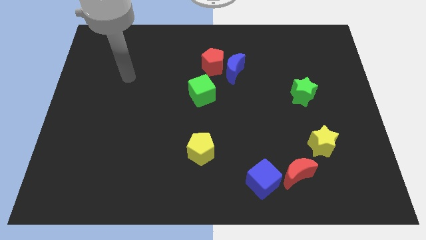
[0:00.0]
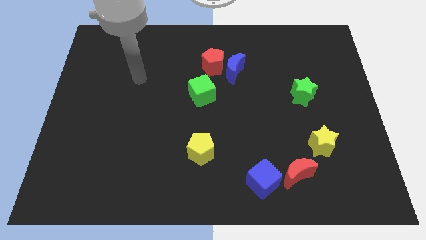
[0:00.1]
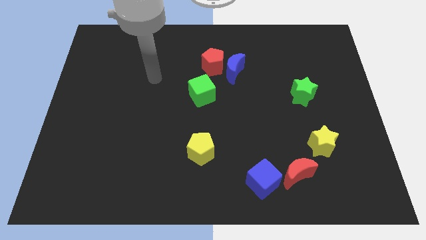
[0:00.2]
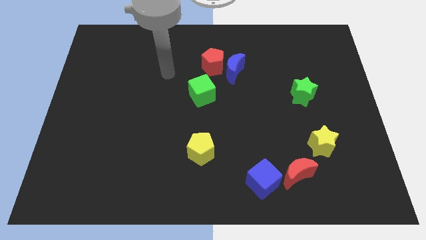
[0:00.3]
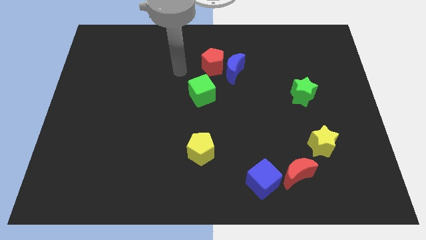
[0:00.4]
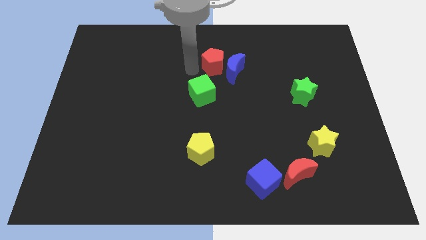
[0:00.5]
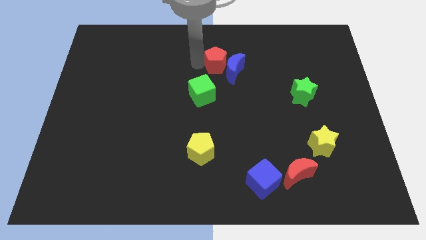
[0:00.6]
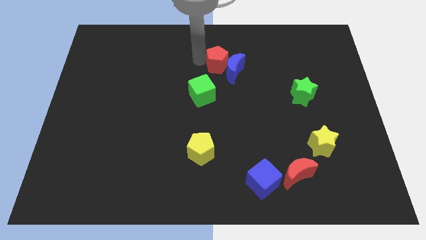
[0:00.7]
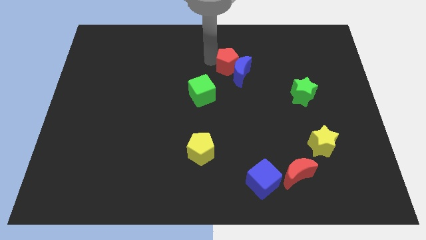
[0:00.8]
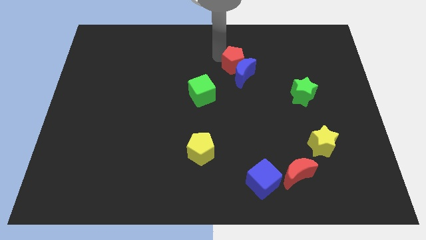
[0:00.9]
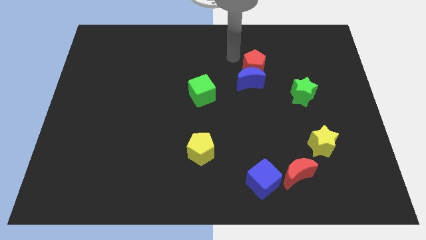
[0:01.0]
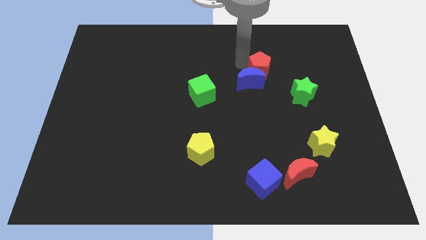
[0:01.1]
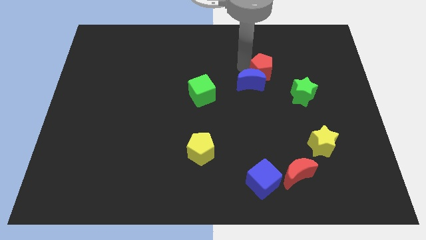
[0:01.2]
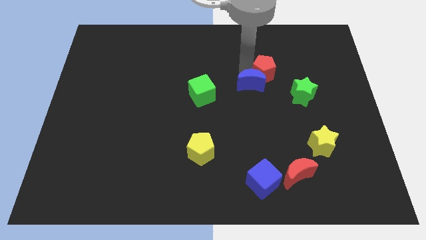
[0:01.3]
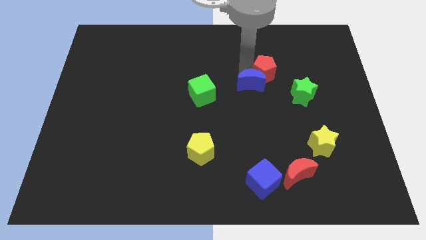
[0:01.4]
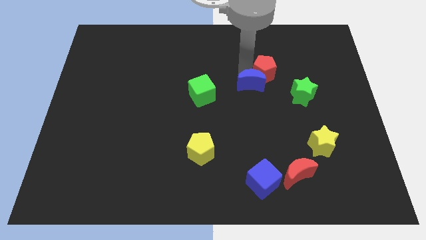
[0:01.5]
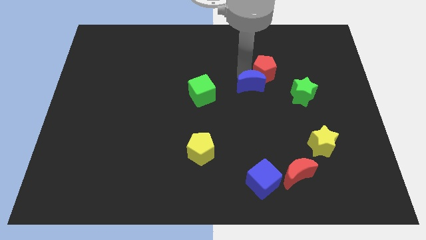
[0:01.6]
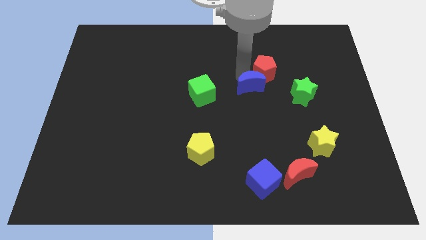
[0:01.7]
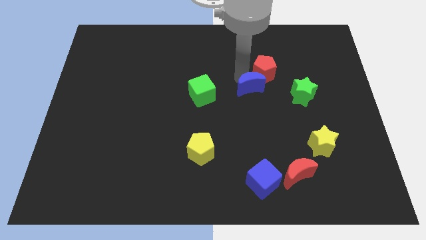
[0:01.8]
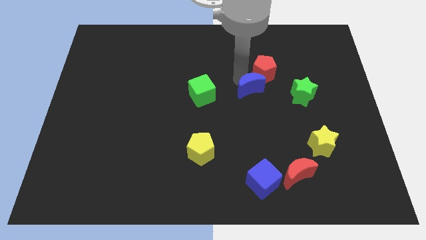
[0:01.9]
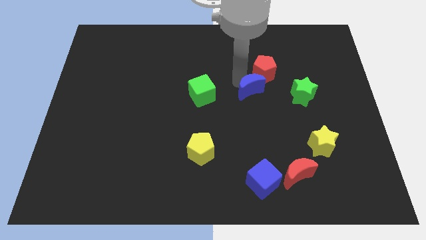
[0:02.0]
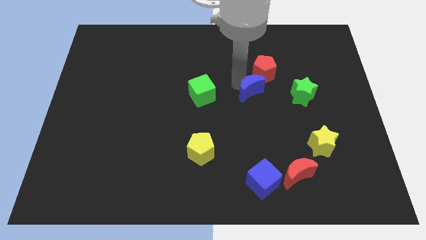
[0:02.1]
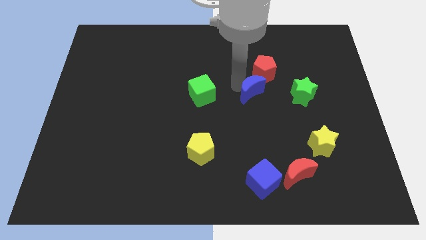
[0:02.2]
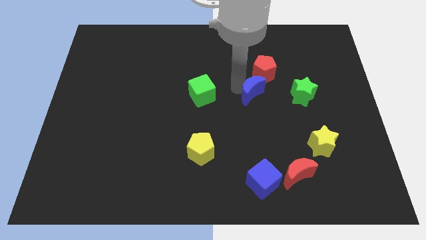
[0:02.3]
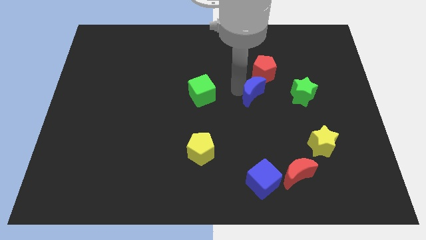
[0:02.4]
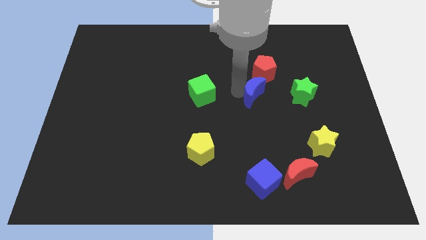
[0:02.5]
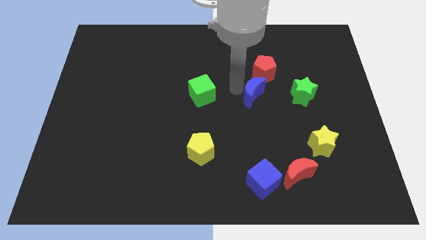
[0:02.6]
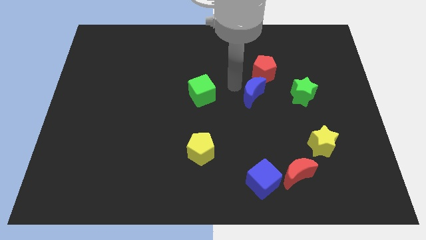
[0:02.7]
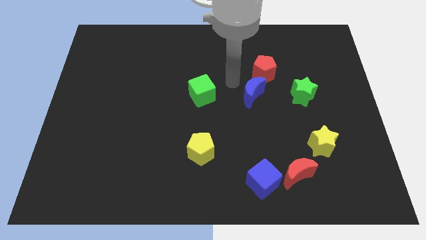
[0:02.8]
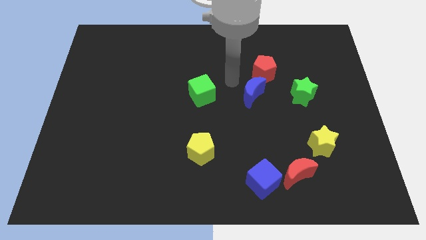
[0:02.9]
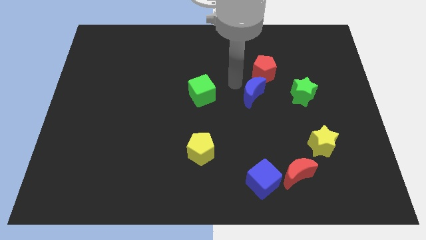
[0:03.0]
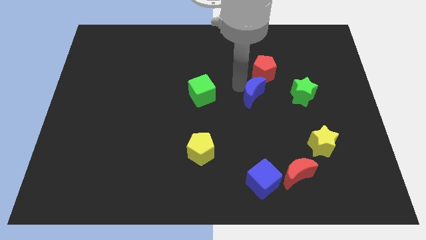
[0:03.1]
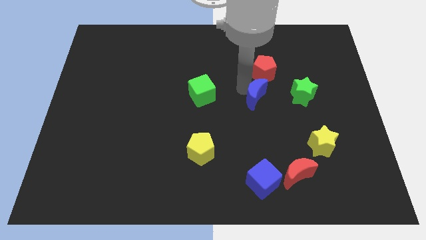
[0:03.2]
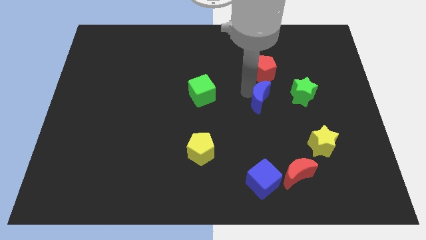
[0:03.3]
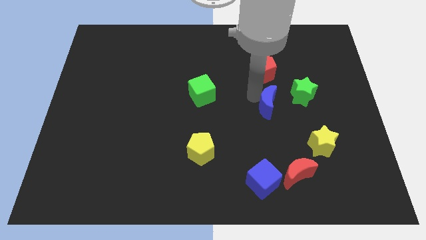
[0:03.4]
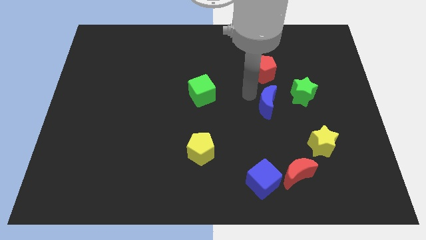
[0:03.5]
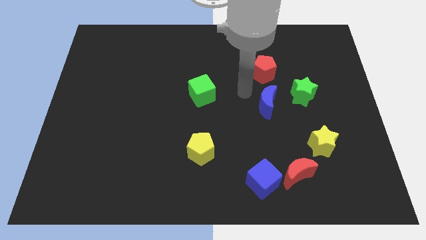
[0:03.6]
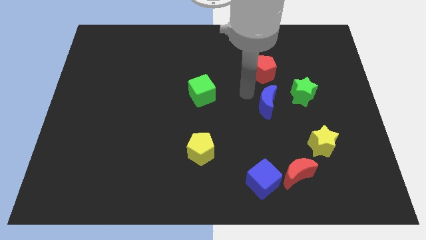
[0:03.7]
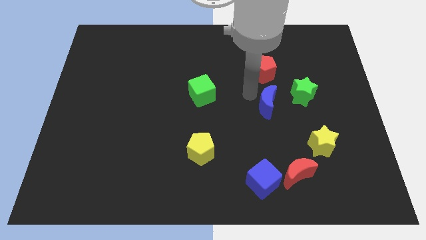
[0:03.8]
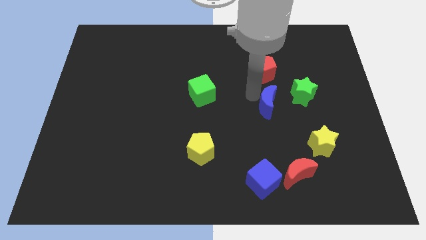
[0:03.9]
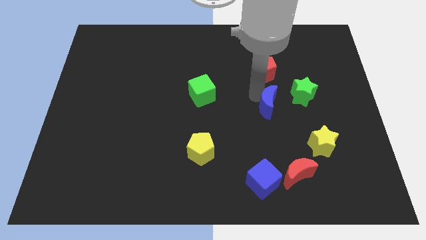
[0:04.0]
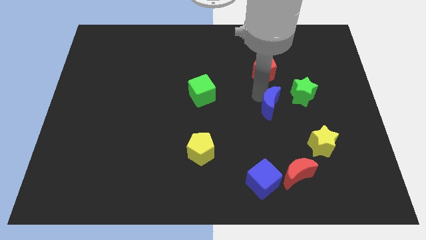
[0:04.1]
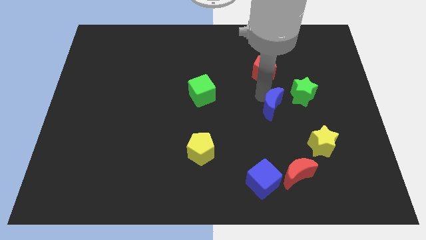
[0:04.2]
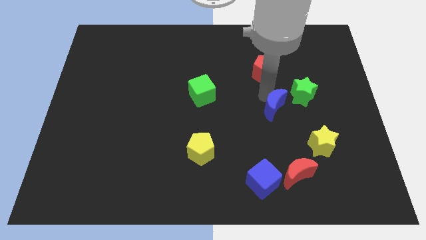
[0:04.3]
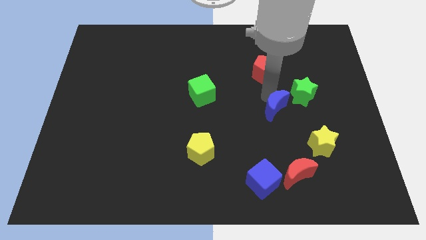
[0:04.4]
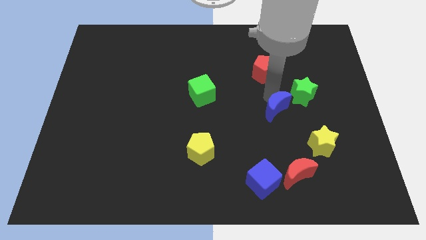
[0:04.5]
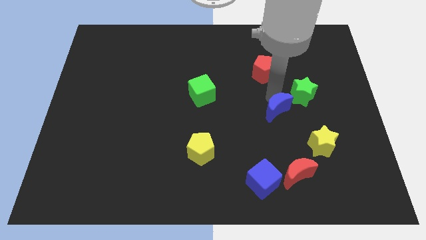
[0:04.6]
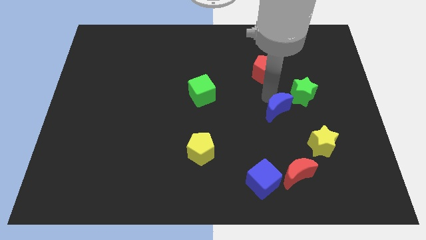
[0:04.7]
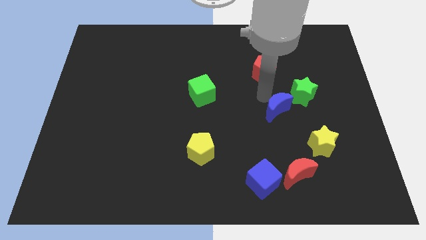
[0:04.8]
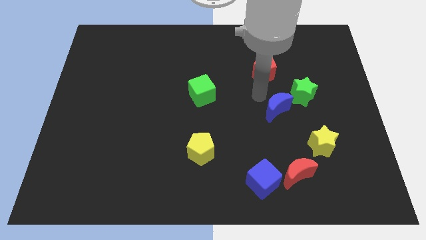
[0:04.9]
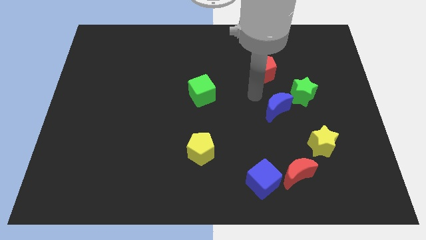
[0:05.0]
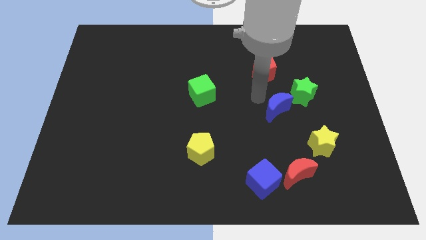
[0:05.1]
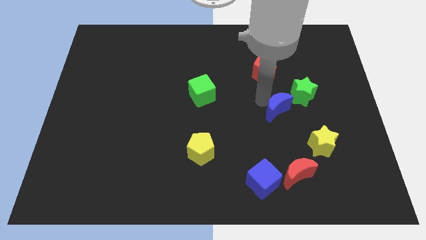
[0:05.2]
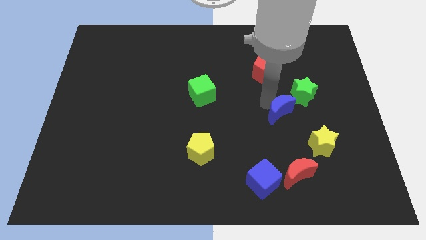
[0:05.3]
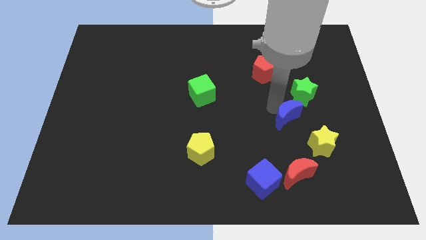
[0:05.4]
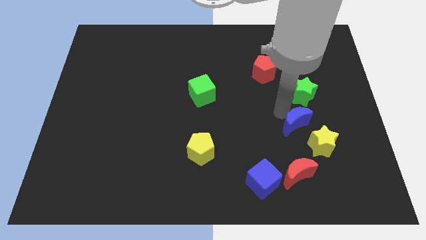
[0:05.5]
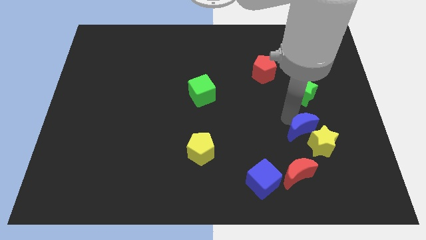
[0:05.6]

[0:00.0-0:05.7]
push the blue moon close to the yellow star

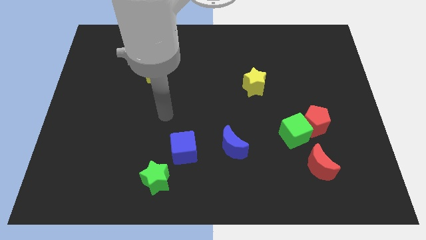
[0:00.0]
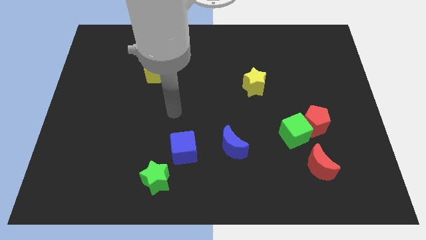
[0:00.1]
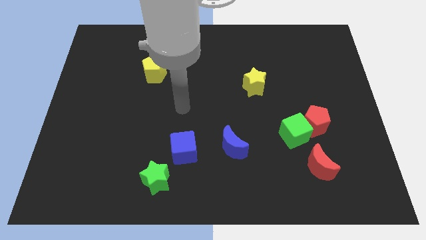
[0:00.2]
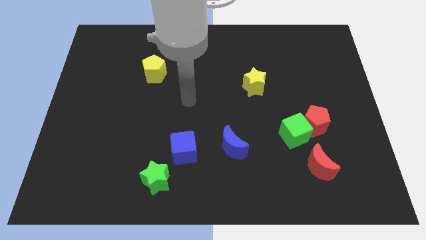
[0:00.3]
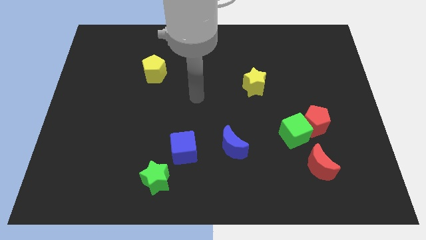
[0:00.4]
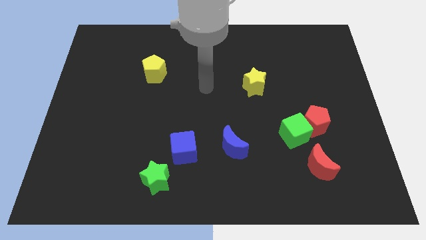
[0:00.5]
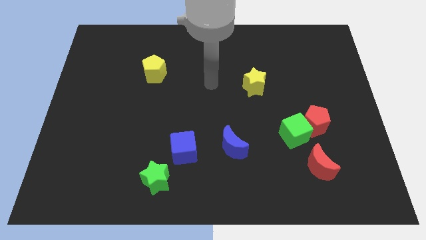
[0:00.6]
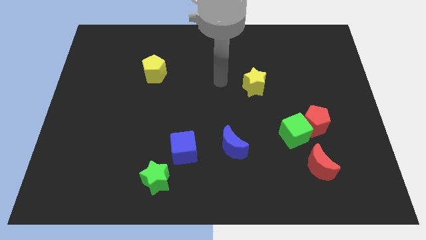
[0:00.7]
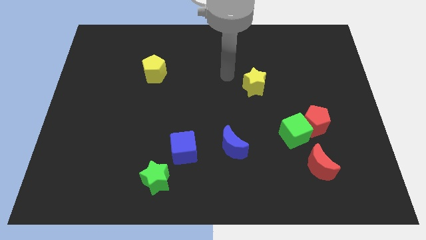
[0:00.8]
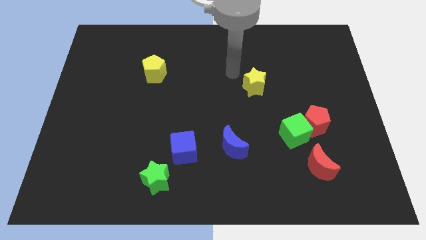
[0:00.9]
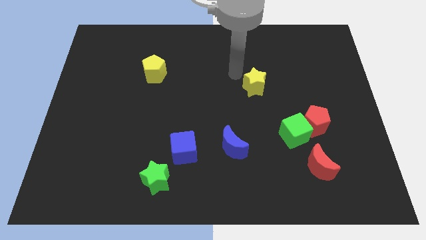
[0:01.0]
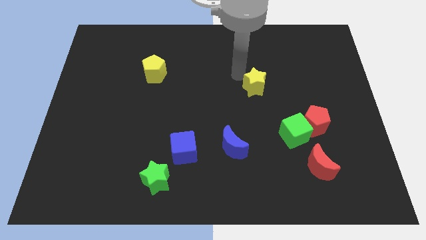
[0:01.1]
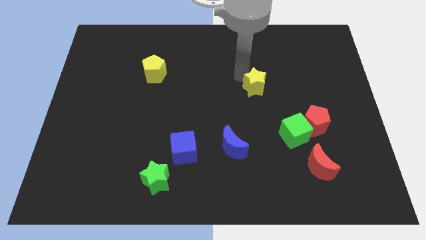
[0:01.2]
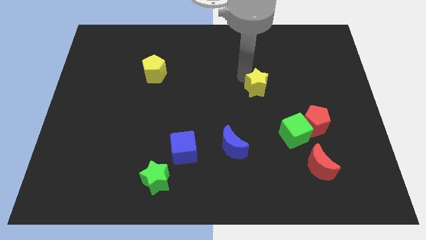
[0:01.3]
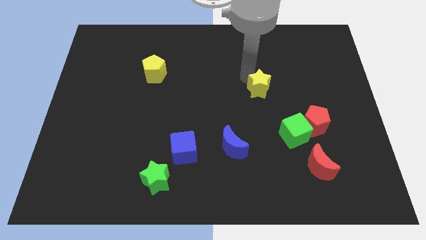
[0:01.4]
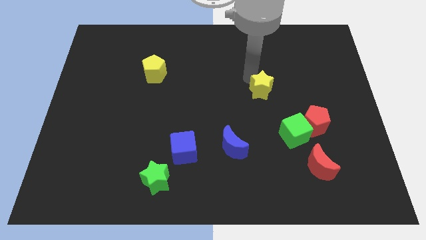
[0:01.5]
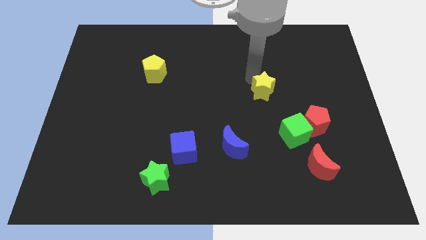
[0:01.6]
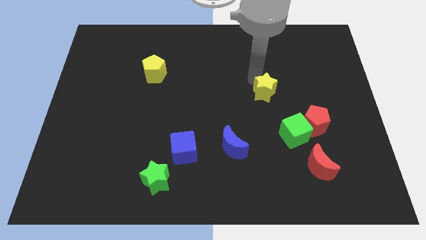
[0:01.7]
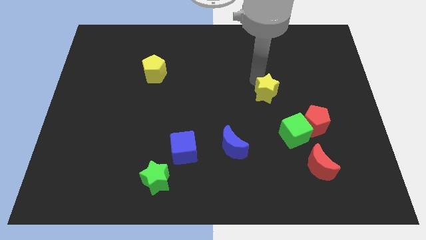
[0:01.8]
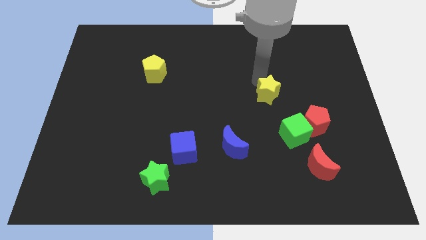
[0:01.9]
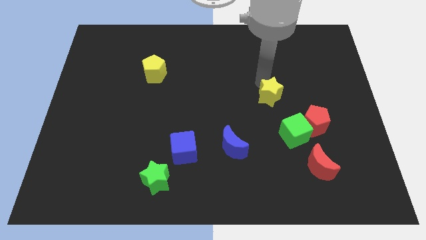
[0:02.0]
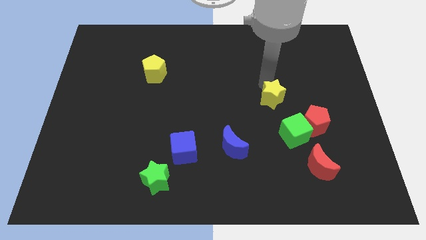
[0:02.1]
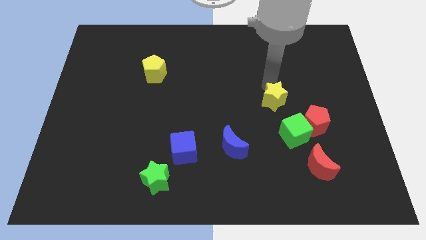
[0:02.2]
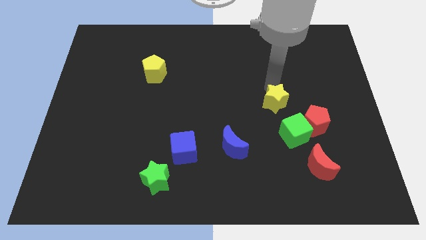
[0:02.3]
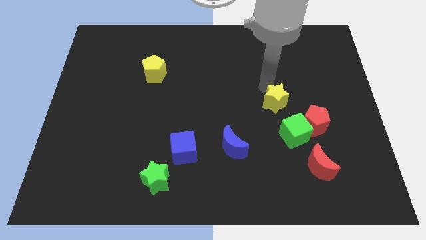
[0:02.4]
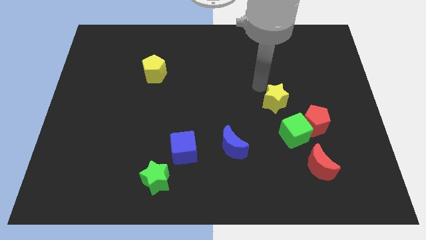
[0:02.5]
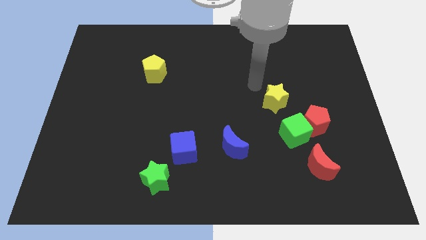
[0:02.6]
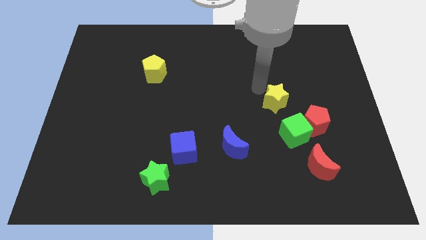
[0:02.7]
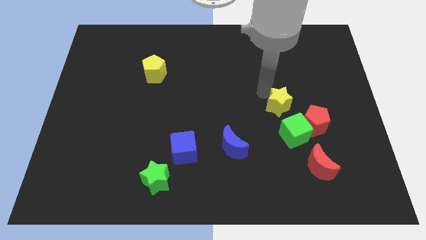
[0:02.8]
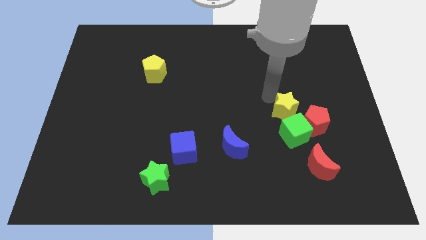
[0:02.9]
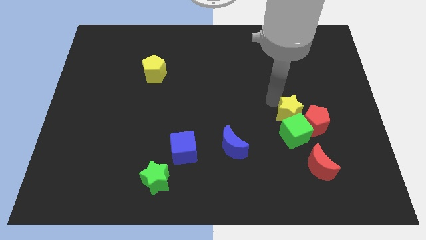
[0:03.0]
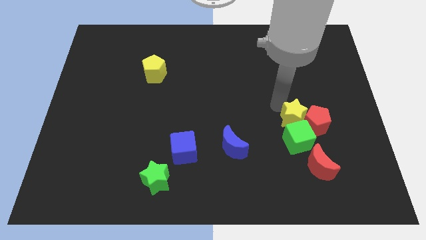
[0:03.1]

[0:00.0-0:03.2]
move the yellow star to the red pentagon
